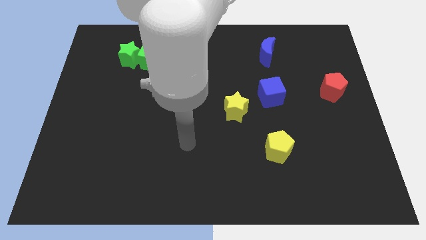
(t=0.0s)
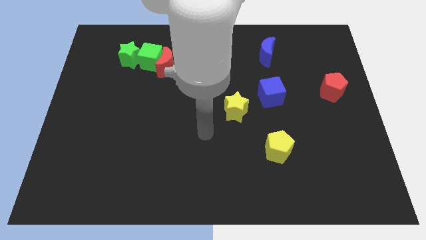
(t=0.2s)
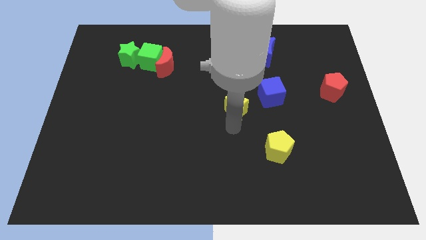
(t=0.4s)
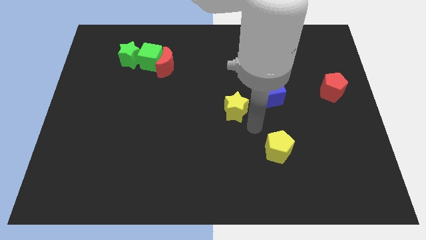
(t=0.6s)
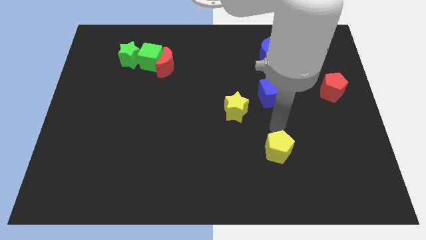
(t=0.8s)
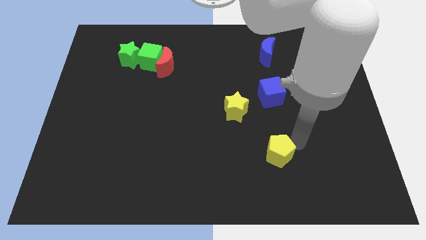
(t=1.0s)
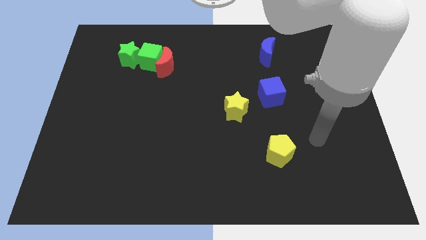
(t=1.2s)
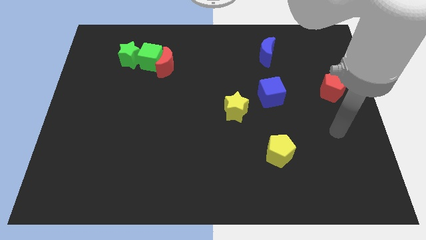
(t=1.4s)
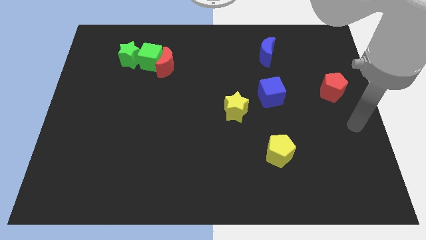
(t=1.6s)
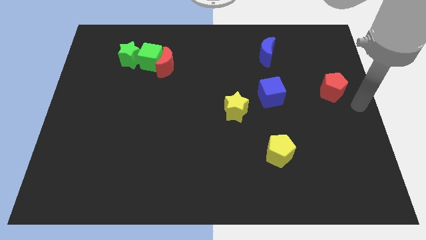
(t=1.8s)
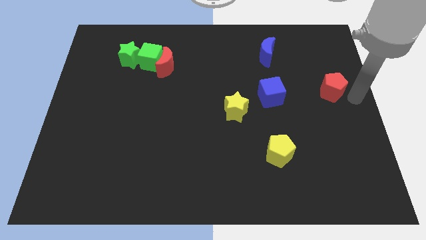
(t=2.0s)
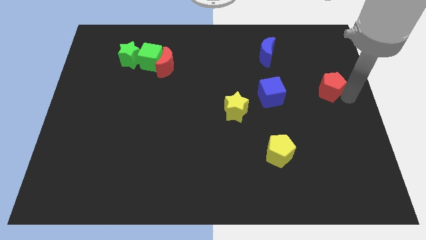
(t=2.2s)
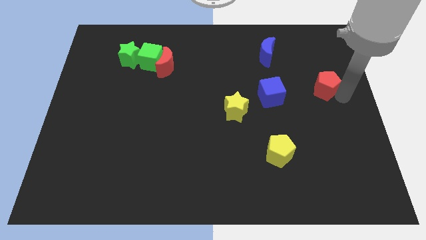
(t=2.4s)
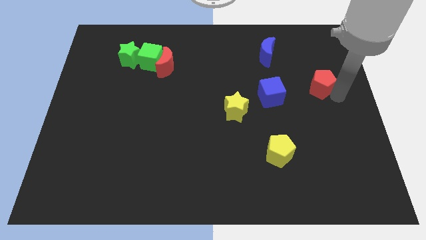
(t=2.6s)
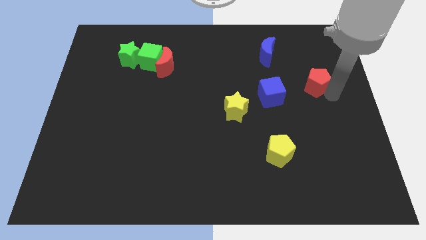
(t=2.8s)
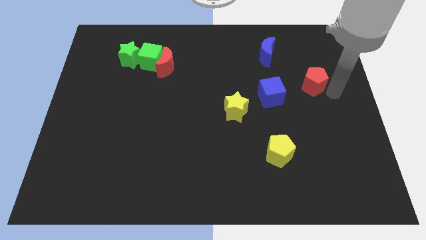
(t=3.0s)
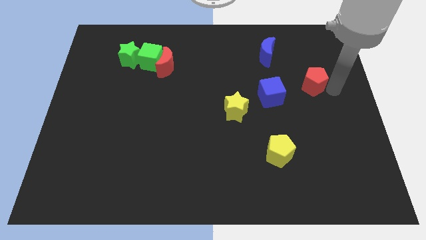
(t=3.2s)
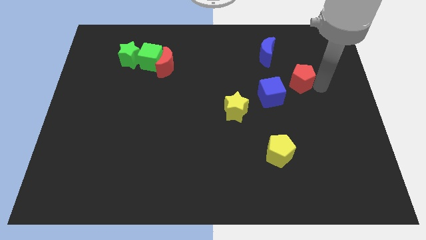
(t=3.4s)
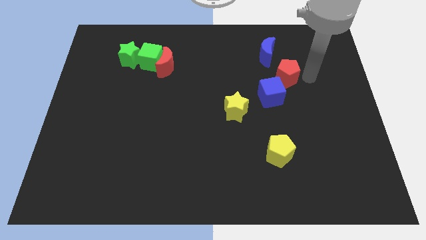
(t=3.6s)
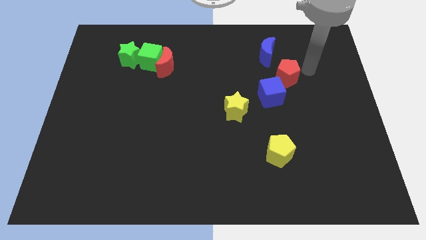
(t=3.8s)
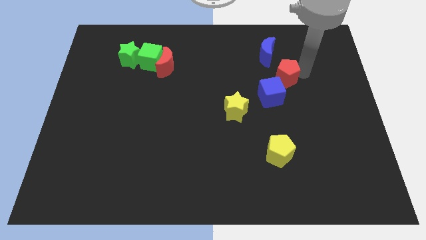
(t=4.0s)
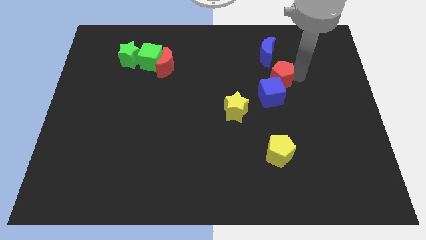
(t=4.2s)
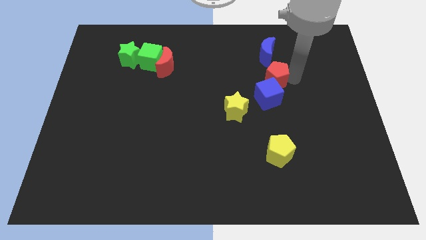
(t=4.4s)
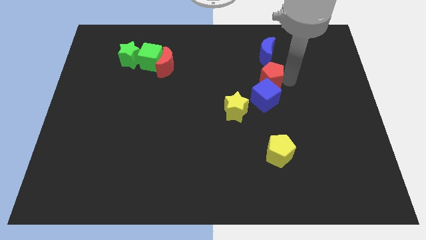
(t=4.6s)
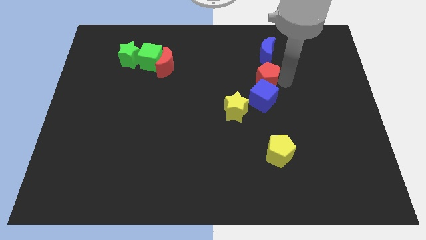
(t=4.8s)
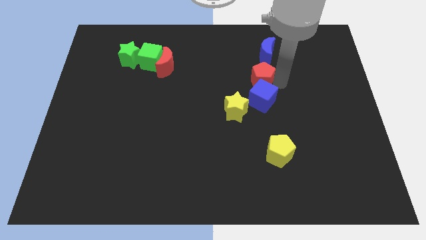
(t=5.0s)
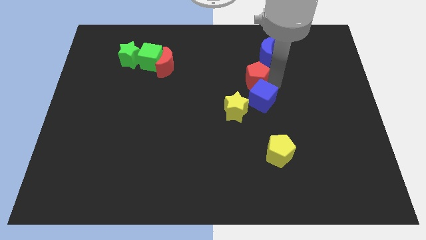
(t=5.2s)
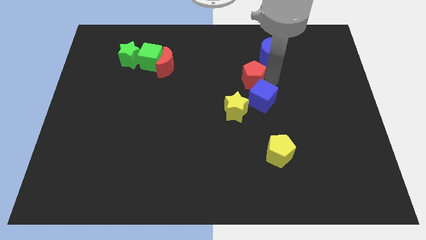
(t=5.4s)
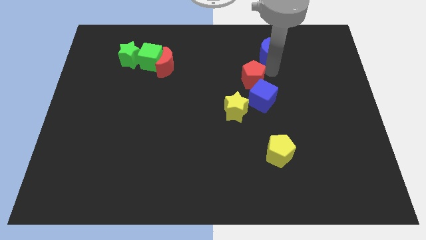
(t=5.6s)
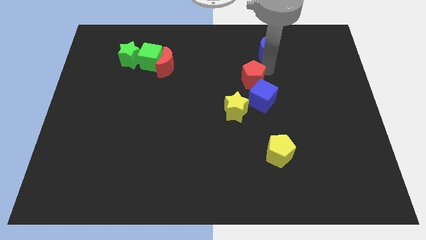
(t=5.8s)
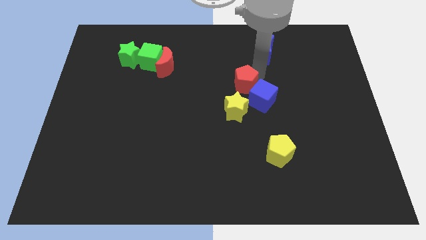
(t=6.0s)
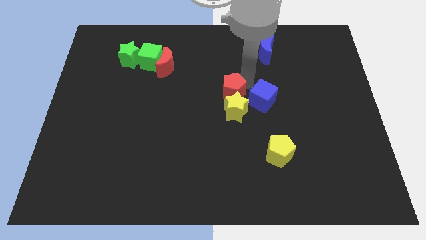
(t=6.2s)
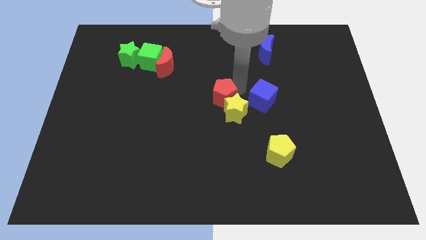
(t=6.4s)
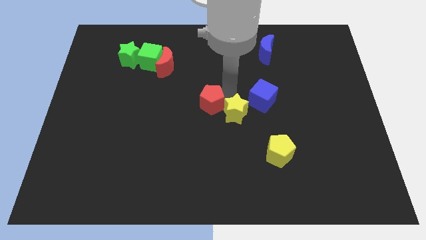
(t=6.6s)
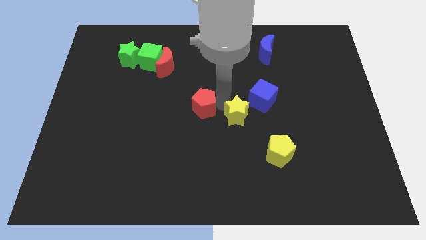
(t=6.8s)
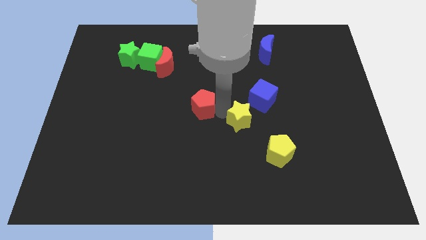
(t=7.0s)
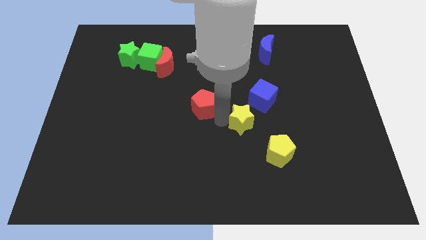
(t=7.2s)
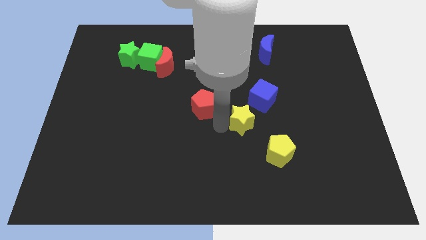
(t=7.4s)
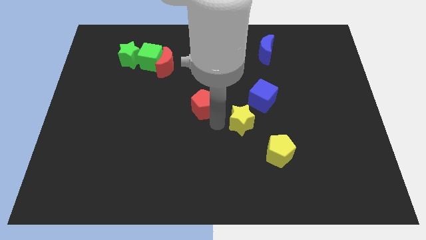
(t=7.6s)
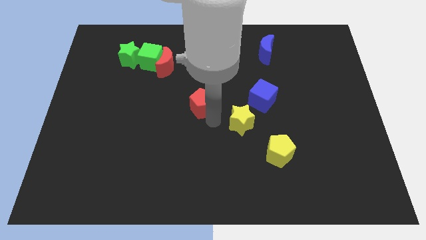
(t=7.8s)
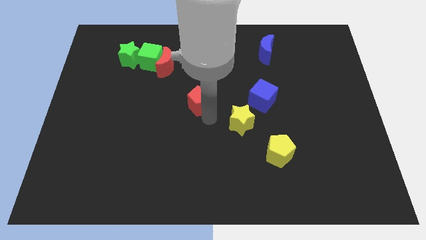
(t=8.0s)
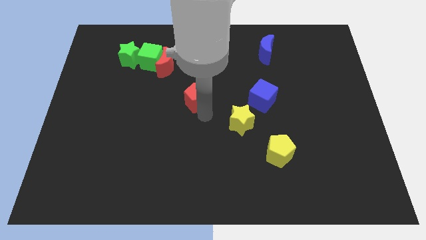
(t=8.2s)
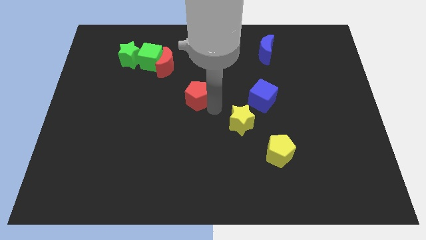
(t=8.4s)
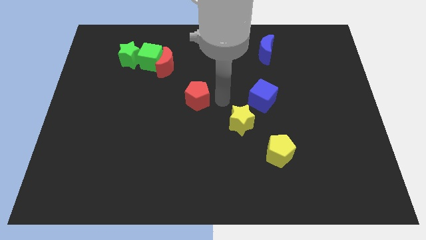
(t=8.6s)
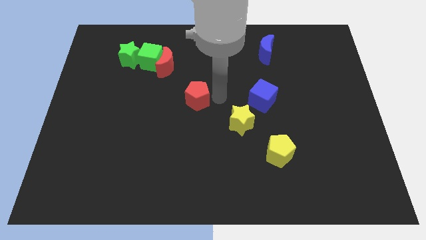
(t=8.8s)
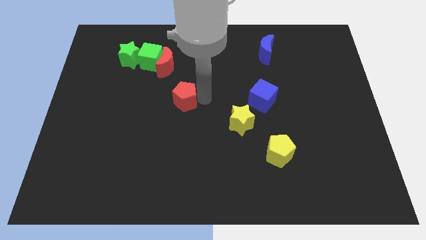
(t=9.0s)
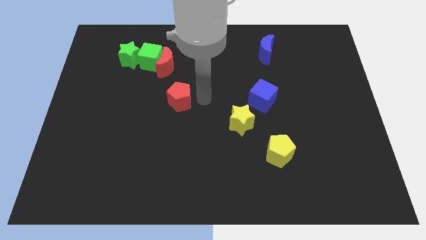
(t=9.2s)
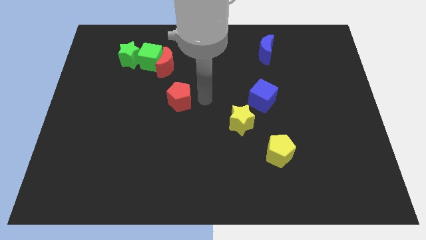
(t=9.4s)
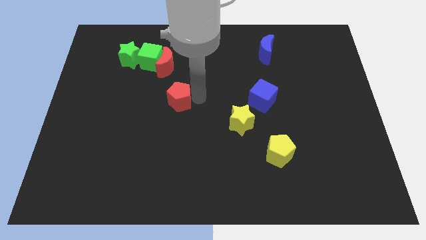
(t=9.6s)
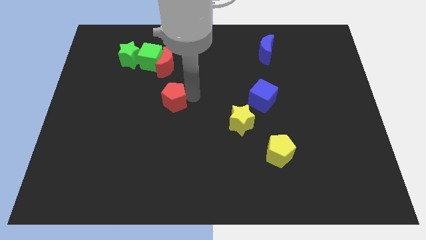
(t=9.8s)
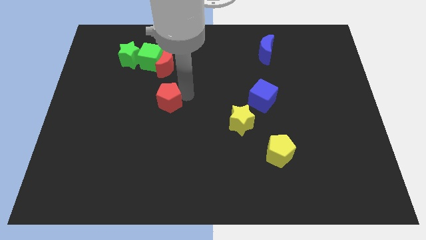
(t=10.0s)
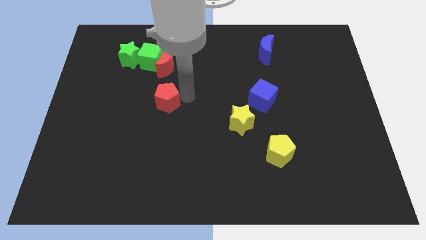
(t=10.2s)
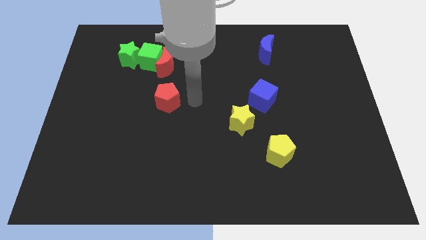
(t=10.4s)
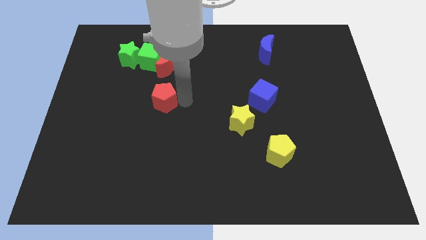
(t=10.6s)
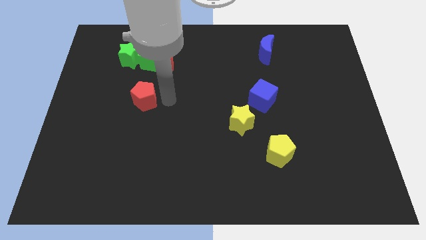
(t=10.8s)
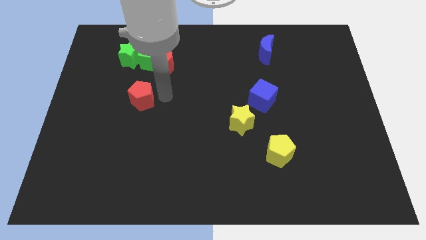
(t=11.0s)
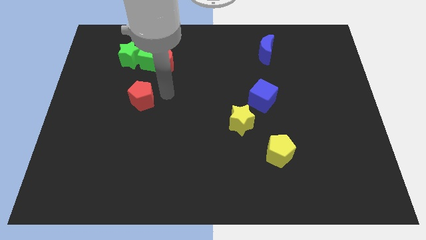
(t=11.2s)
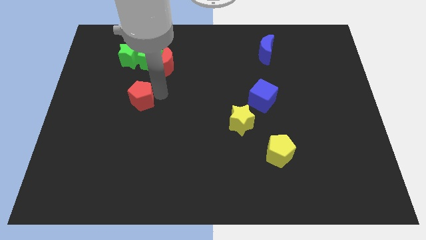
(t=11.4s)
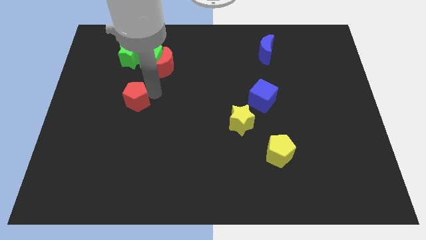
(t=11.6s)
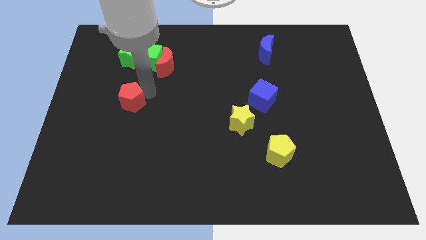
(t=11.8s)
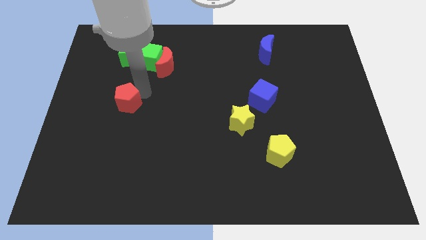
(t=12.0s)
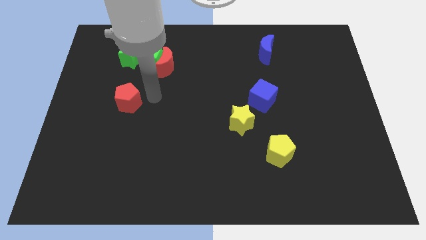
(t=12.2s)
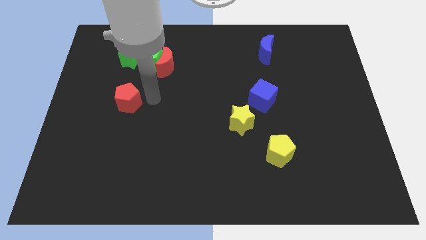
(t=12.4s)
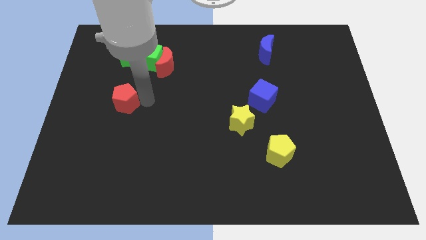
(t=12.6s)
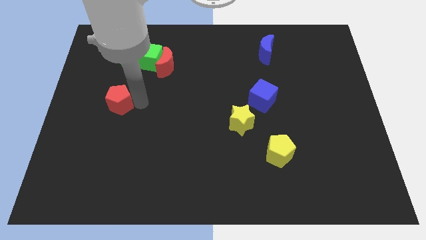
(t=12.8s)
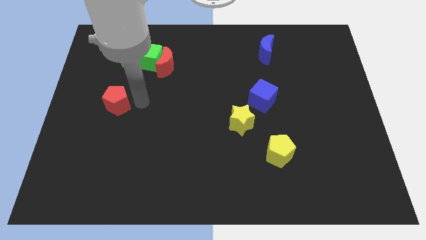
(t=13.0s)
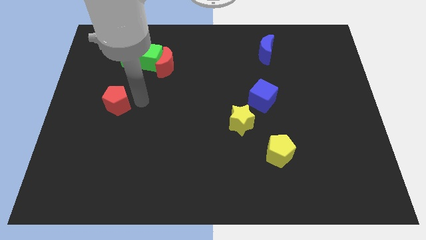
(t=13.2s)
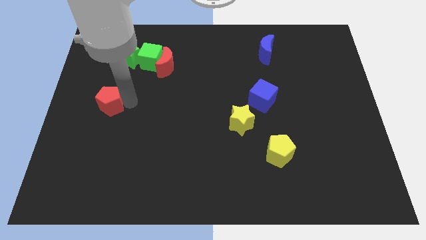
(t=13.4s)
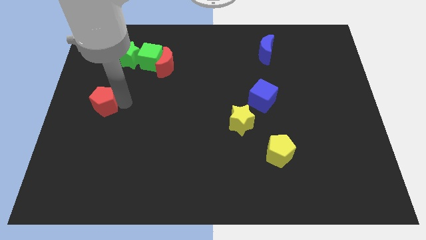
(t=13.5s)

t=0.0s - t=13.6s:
push the red pentagon to the left side of the board
